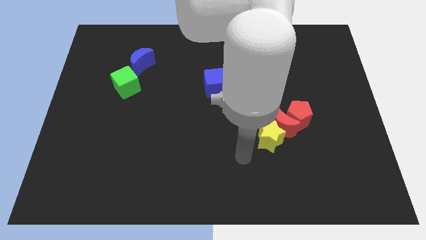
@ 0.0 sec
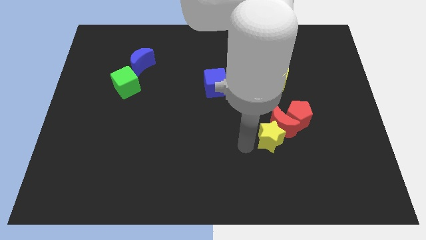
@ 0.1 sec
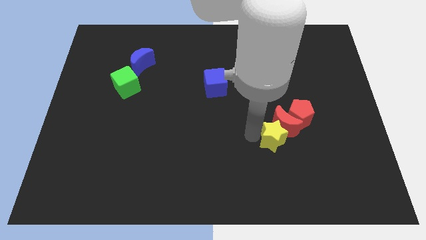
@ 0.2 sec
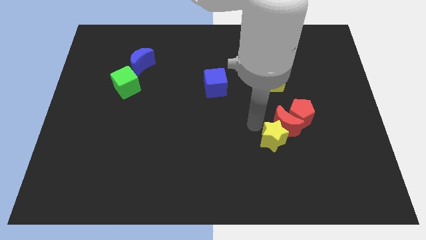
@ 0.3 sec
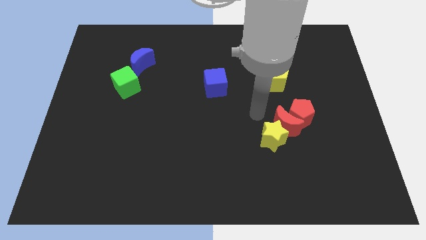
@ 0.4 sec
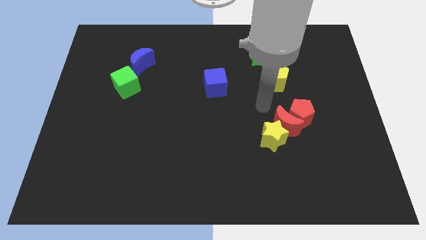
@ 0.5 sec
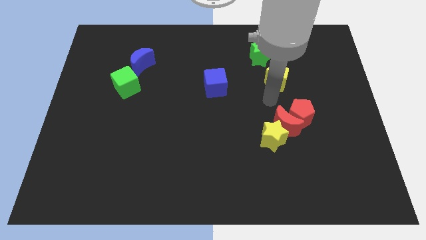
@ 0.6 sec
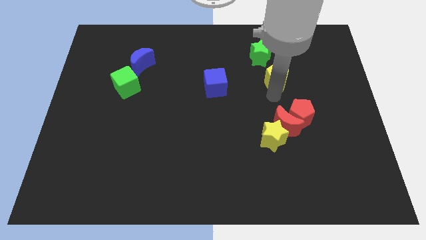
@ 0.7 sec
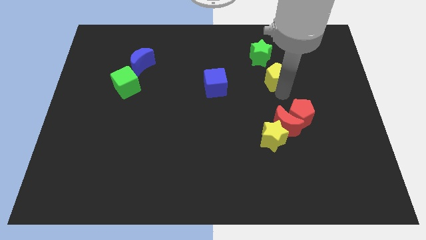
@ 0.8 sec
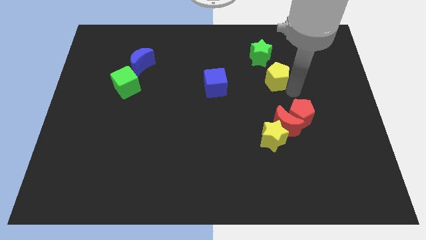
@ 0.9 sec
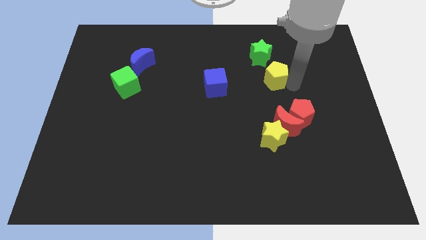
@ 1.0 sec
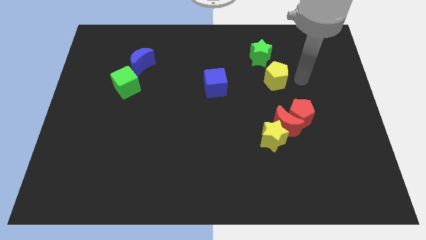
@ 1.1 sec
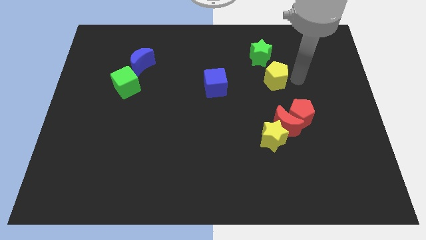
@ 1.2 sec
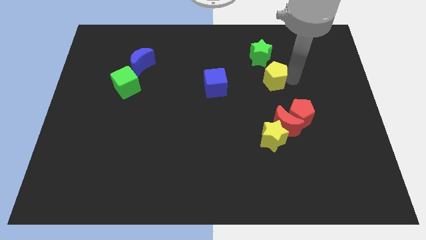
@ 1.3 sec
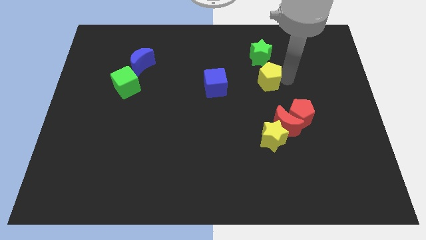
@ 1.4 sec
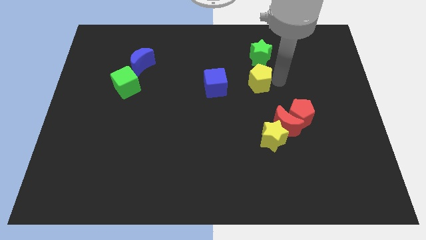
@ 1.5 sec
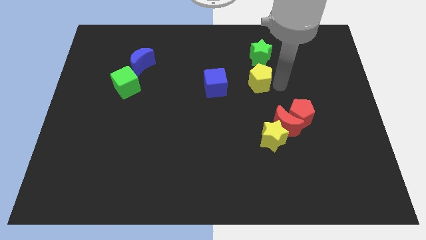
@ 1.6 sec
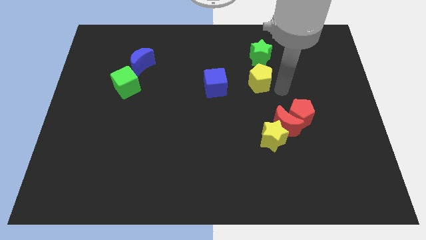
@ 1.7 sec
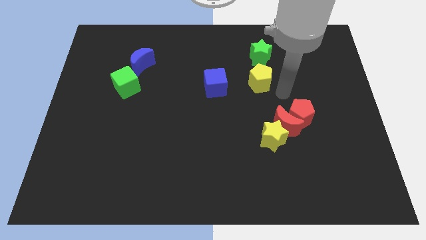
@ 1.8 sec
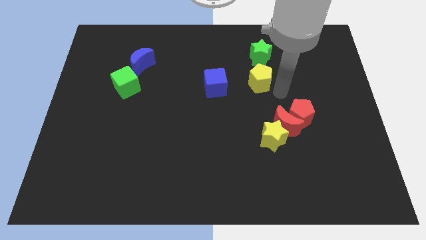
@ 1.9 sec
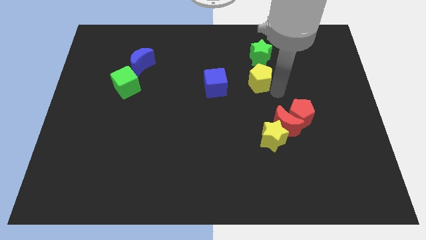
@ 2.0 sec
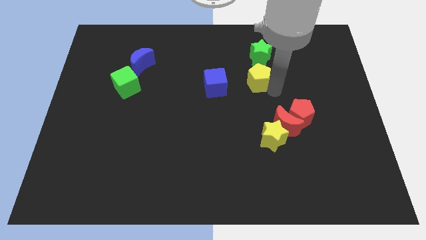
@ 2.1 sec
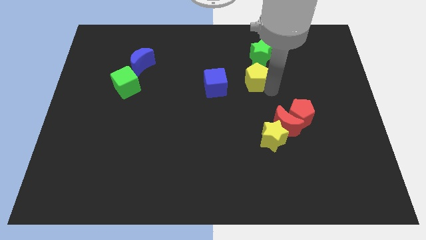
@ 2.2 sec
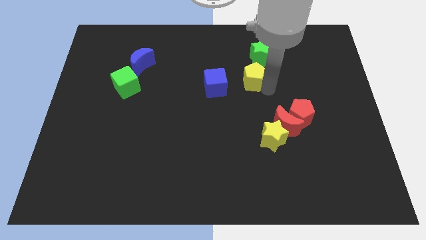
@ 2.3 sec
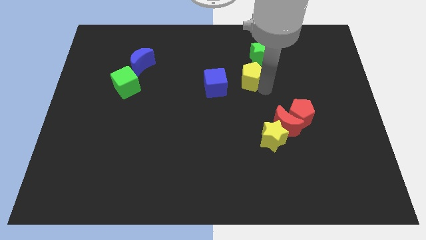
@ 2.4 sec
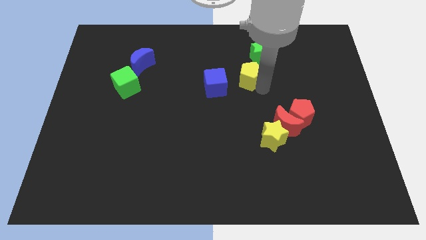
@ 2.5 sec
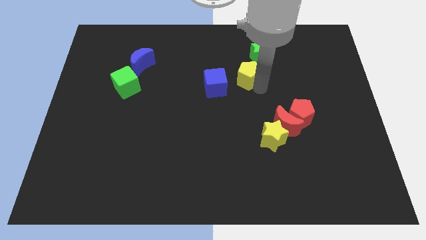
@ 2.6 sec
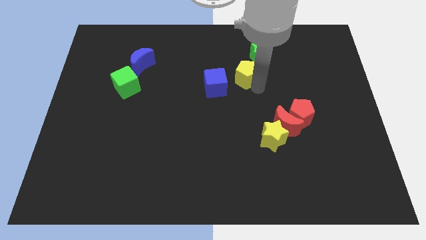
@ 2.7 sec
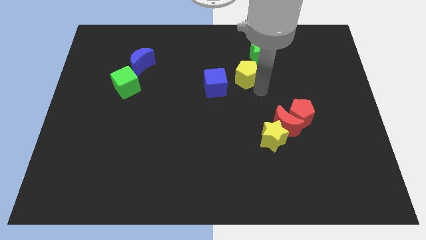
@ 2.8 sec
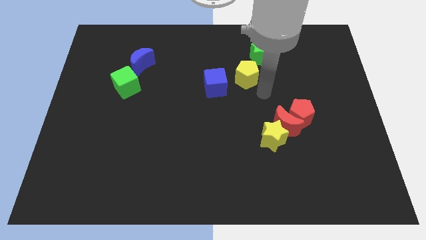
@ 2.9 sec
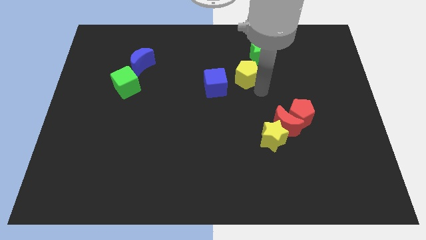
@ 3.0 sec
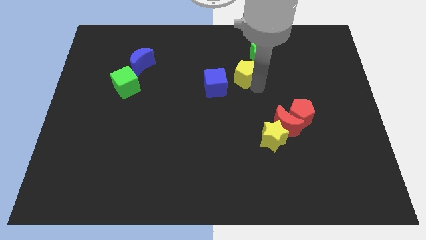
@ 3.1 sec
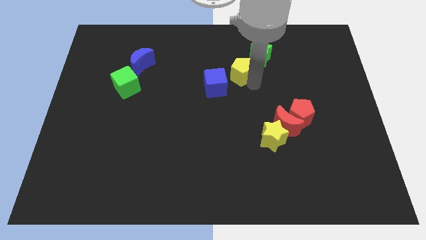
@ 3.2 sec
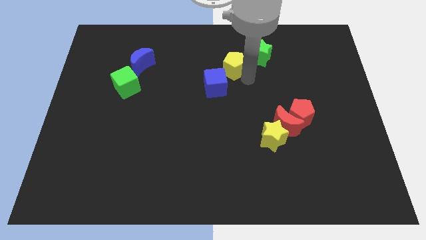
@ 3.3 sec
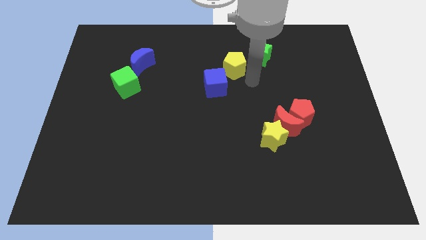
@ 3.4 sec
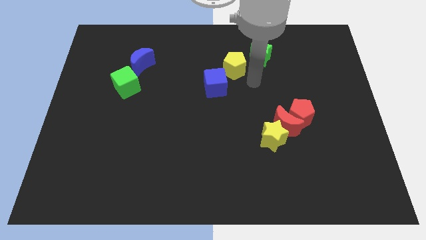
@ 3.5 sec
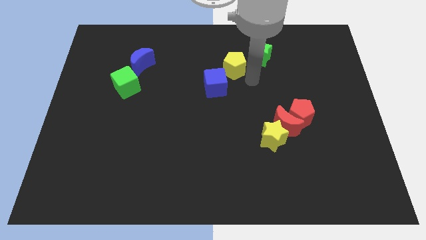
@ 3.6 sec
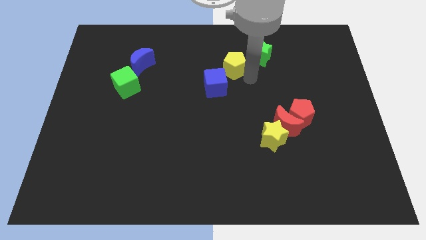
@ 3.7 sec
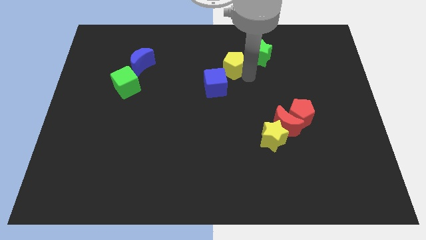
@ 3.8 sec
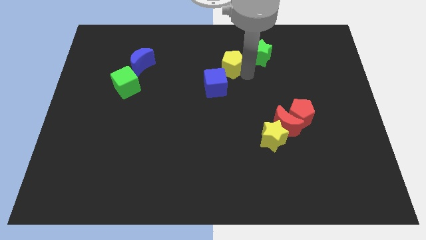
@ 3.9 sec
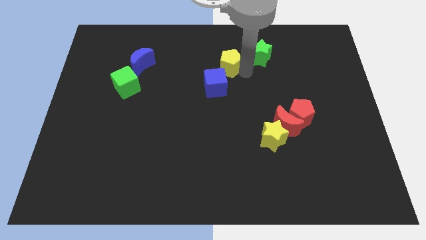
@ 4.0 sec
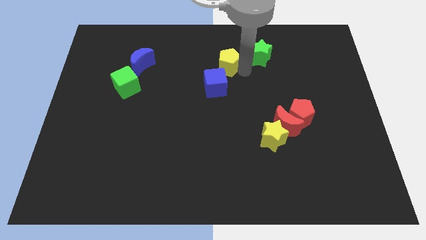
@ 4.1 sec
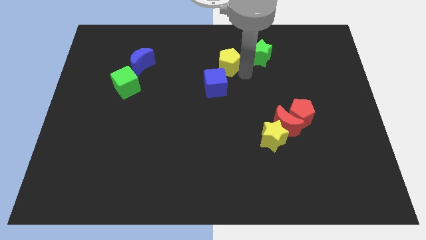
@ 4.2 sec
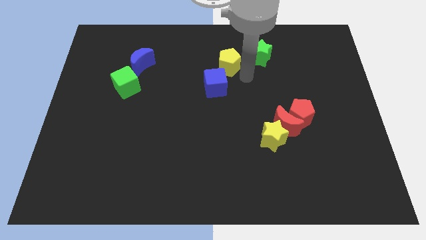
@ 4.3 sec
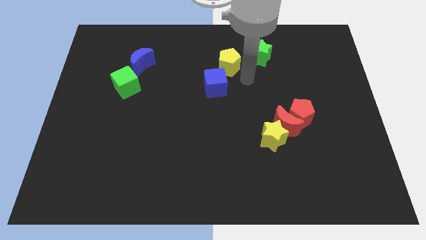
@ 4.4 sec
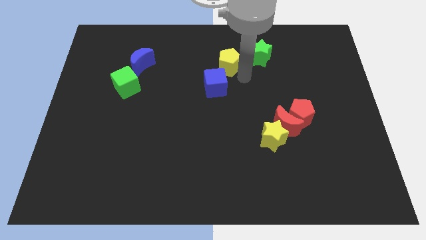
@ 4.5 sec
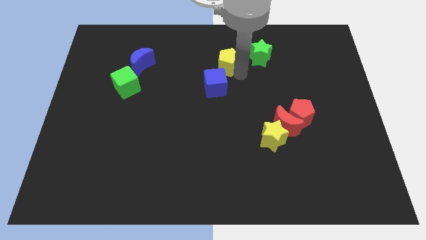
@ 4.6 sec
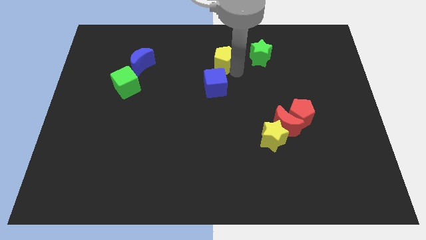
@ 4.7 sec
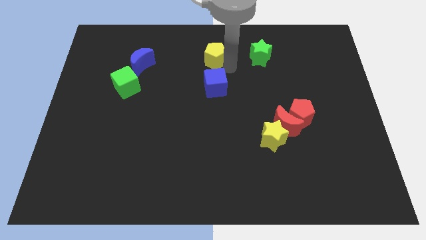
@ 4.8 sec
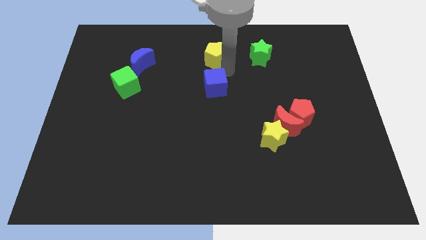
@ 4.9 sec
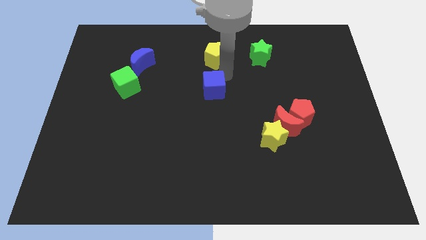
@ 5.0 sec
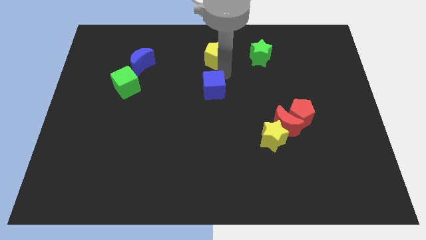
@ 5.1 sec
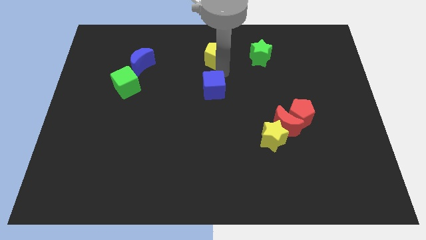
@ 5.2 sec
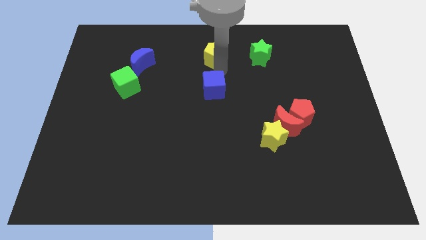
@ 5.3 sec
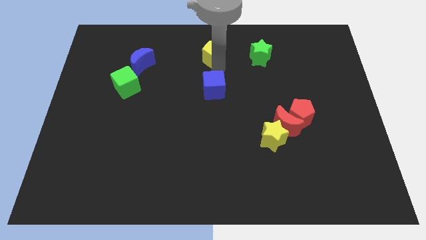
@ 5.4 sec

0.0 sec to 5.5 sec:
slide the yellow pentagon to the top

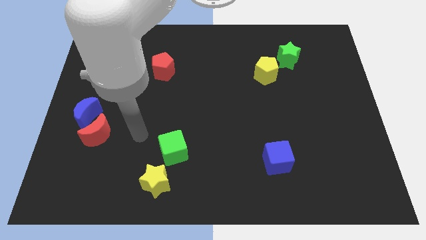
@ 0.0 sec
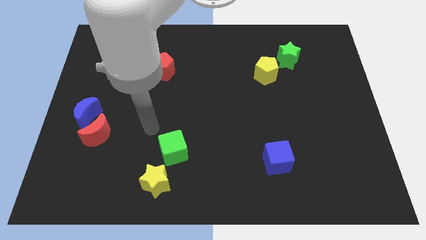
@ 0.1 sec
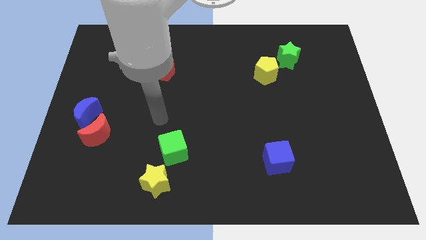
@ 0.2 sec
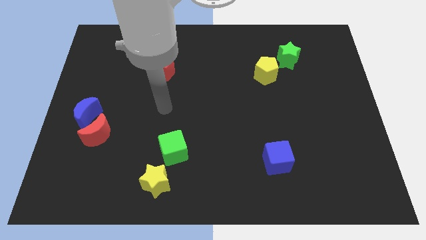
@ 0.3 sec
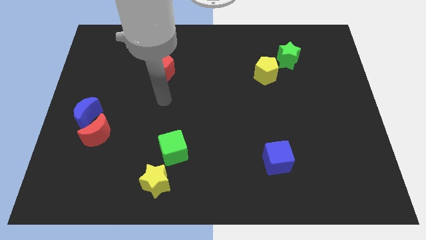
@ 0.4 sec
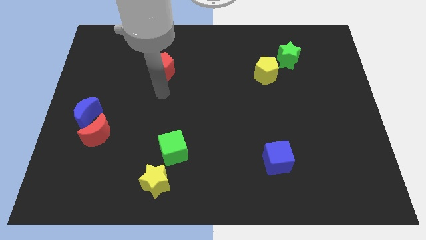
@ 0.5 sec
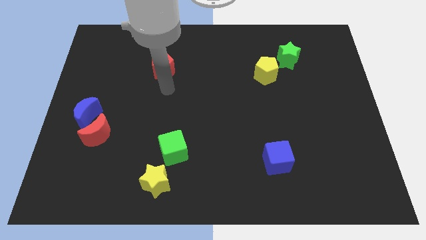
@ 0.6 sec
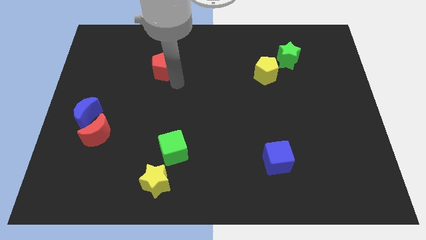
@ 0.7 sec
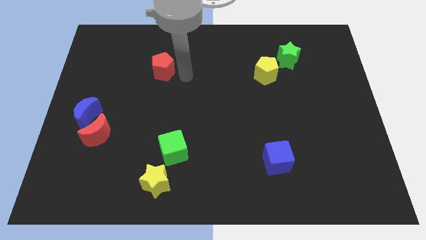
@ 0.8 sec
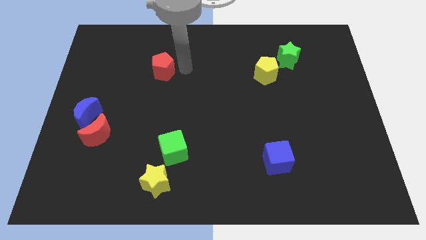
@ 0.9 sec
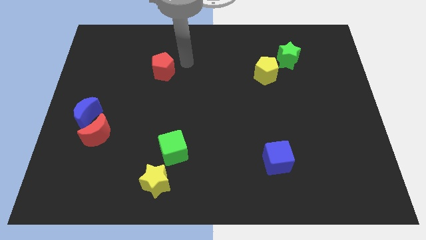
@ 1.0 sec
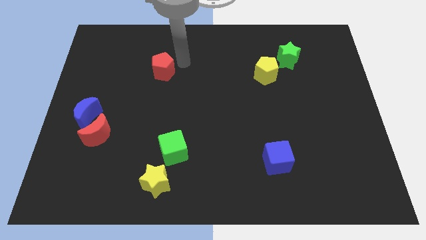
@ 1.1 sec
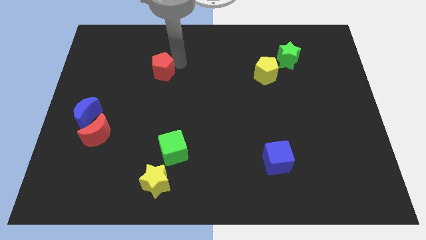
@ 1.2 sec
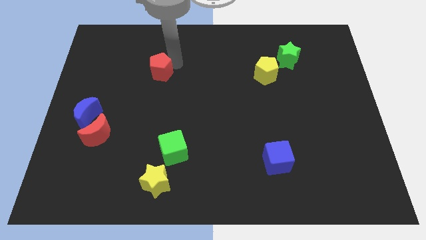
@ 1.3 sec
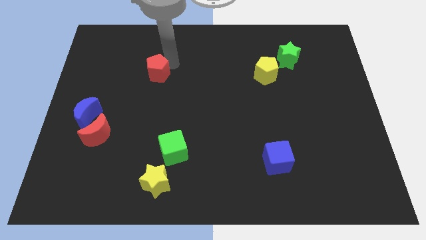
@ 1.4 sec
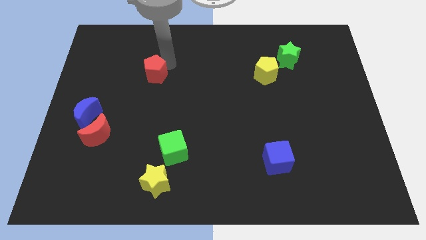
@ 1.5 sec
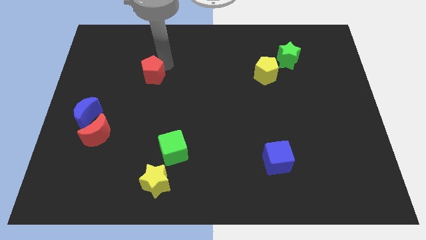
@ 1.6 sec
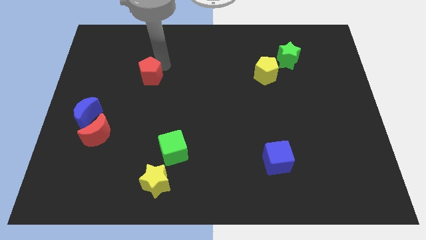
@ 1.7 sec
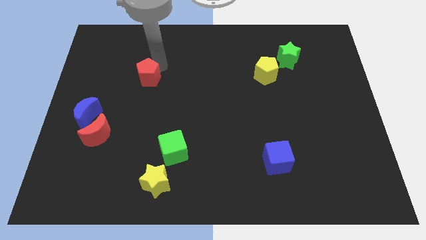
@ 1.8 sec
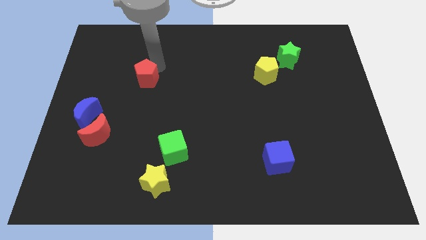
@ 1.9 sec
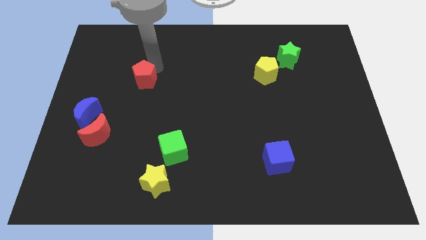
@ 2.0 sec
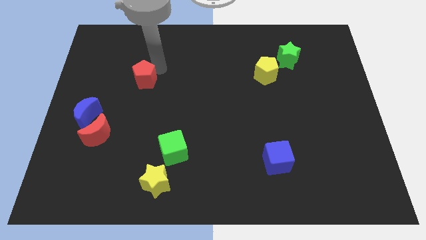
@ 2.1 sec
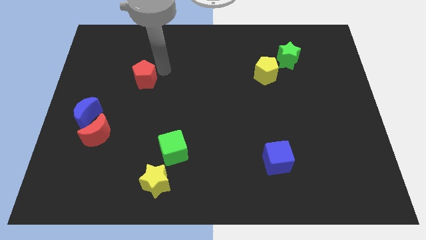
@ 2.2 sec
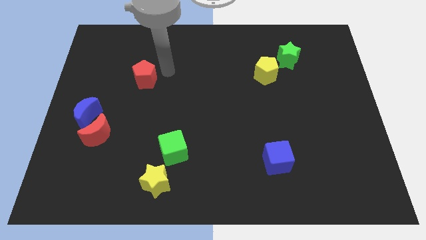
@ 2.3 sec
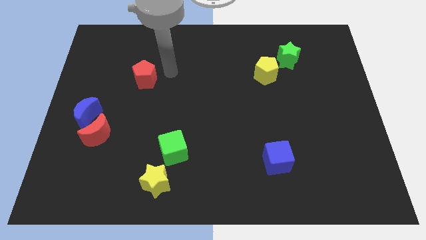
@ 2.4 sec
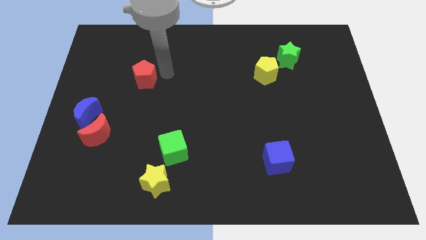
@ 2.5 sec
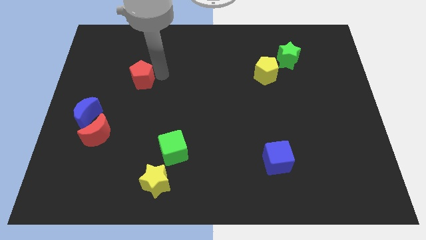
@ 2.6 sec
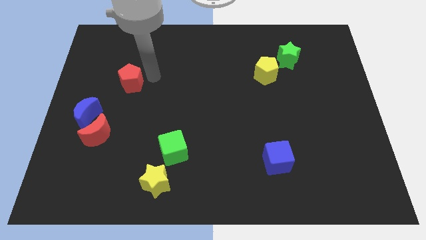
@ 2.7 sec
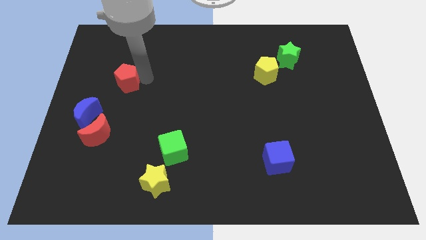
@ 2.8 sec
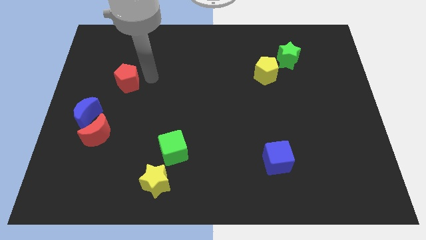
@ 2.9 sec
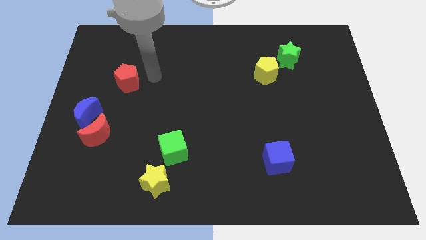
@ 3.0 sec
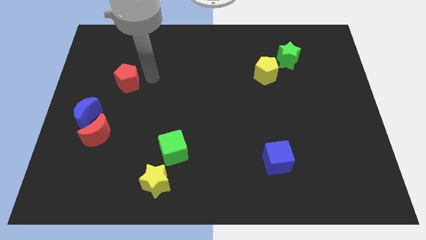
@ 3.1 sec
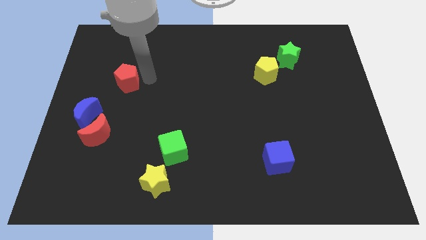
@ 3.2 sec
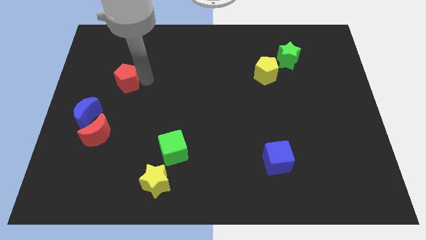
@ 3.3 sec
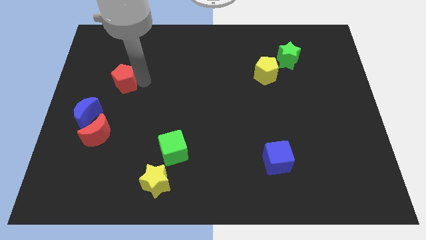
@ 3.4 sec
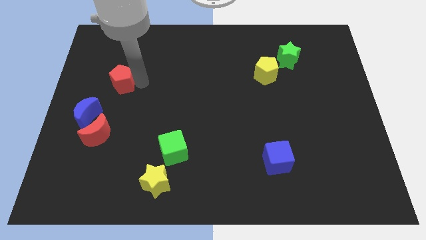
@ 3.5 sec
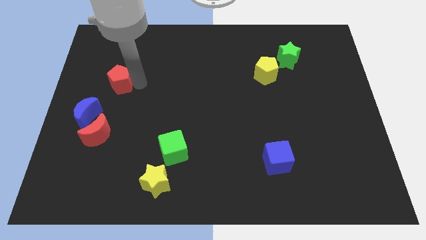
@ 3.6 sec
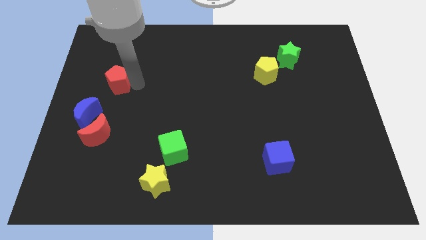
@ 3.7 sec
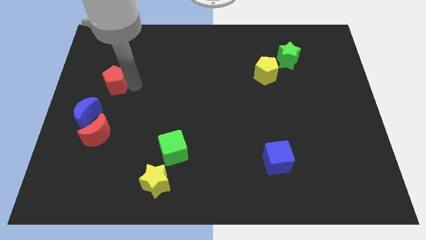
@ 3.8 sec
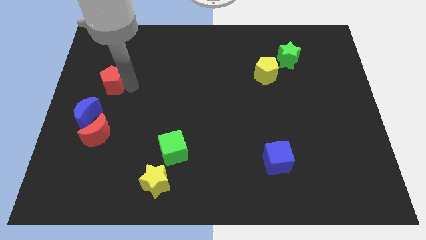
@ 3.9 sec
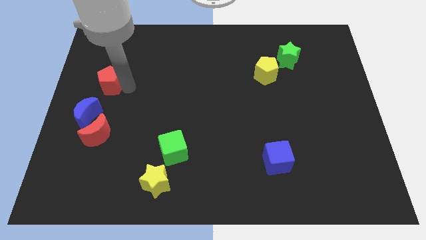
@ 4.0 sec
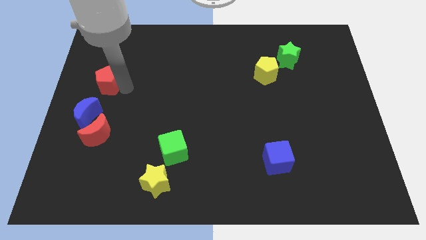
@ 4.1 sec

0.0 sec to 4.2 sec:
slide the red pentagon to the left side of the board
